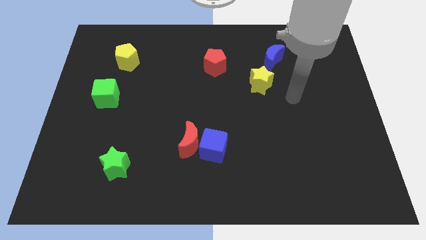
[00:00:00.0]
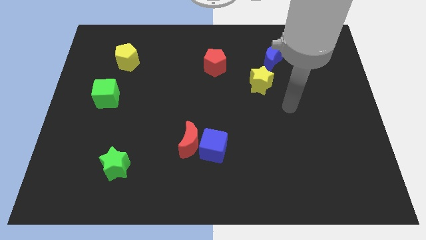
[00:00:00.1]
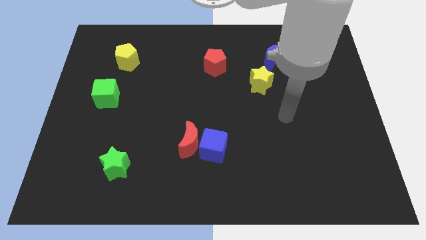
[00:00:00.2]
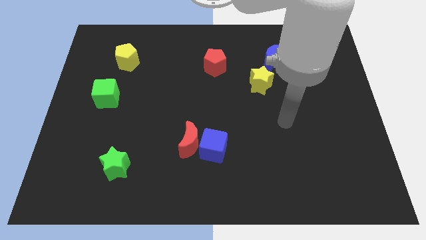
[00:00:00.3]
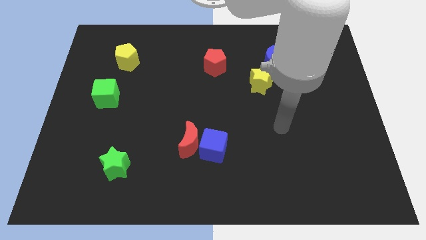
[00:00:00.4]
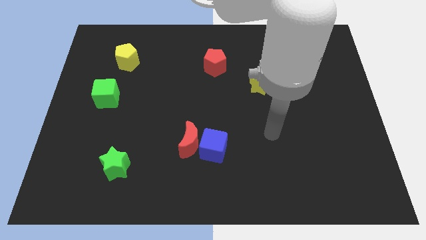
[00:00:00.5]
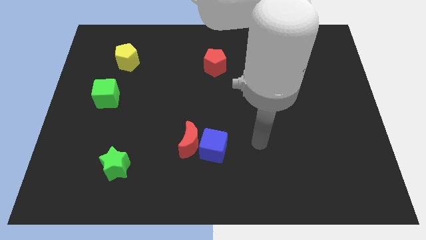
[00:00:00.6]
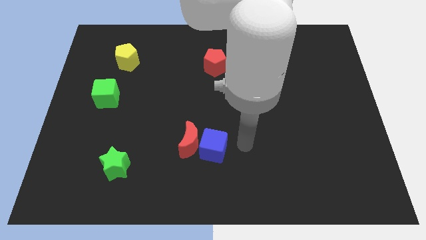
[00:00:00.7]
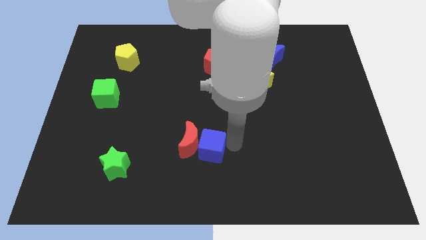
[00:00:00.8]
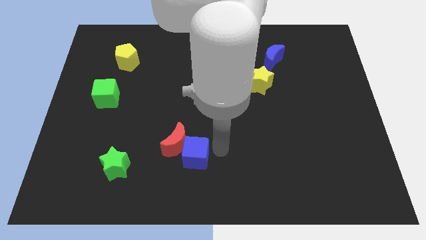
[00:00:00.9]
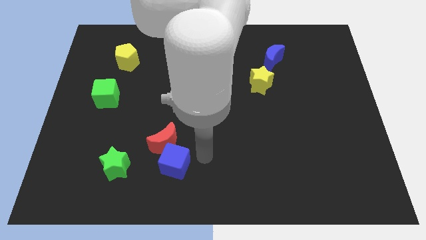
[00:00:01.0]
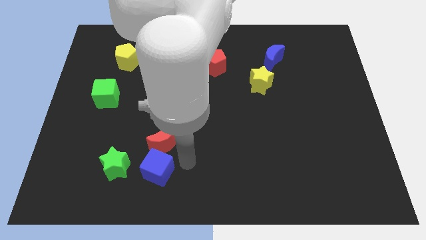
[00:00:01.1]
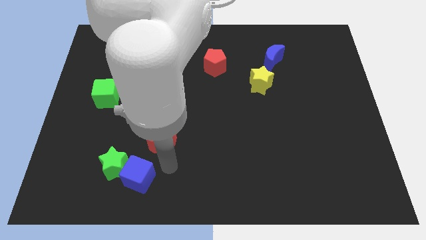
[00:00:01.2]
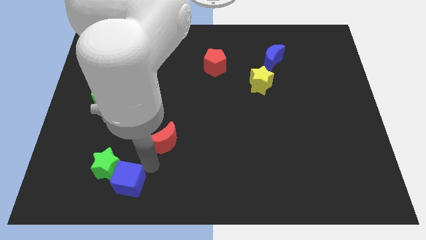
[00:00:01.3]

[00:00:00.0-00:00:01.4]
pull the red moon apart from the blue cube

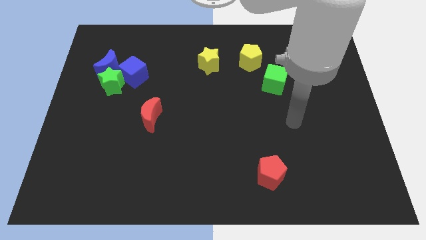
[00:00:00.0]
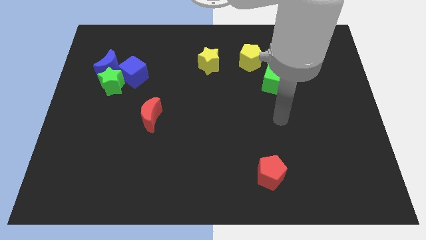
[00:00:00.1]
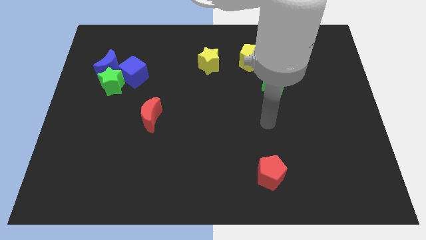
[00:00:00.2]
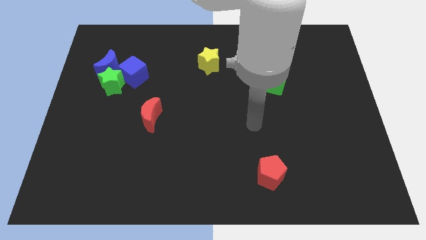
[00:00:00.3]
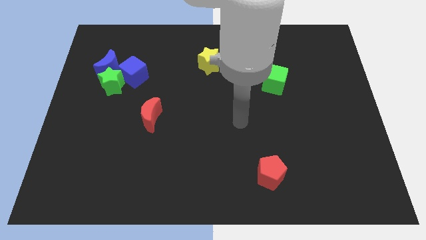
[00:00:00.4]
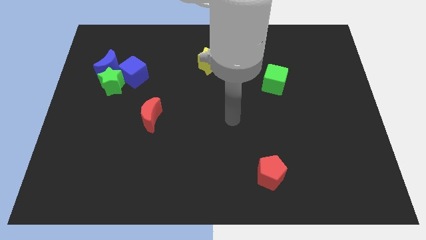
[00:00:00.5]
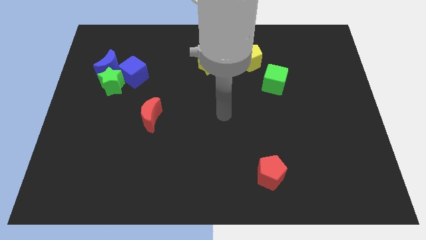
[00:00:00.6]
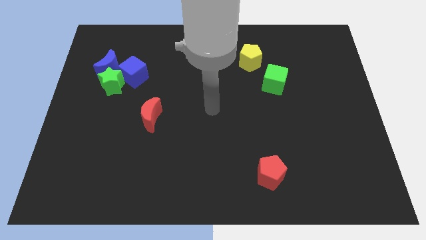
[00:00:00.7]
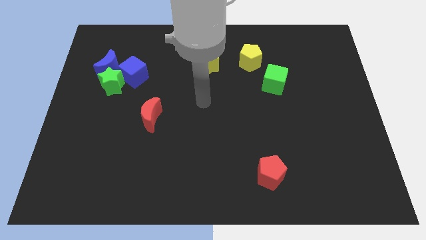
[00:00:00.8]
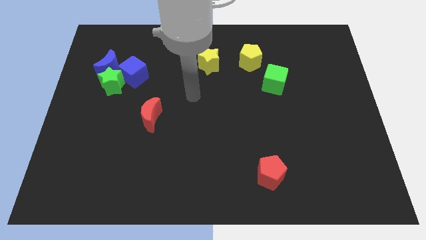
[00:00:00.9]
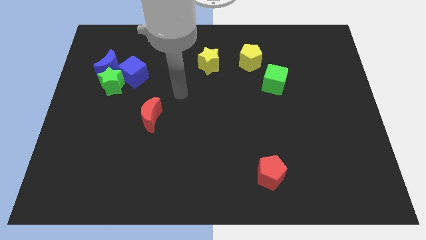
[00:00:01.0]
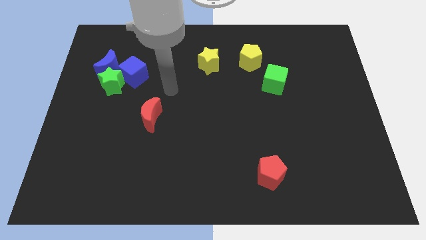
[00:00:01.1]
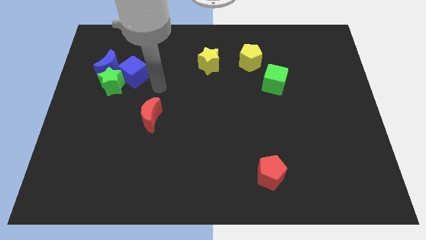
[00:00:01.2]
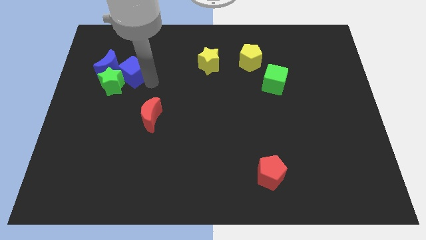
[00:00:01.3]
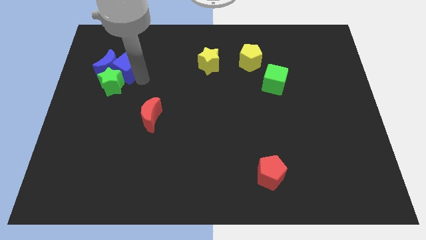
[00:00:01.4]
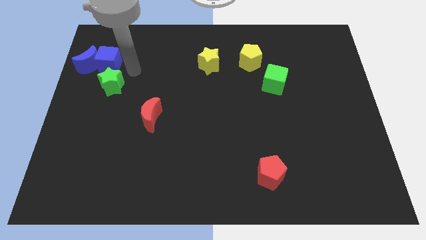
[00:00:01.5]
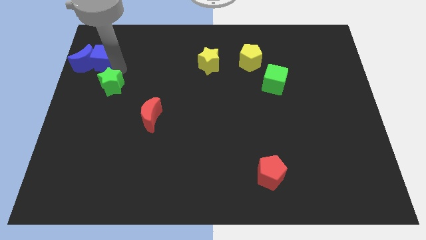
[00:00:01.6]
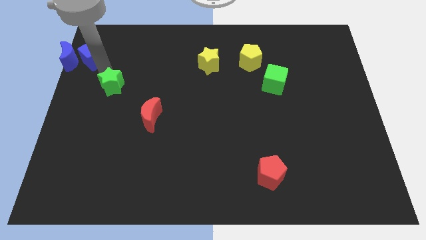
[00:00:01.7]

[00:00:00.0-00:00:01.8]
move the green star away from the blue moon and blue cube

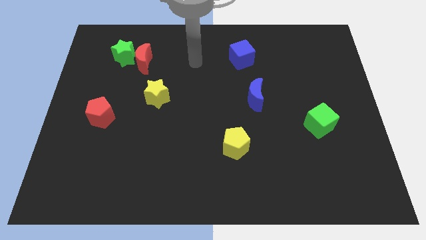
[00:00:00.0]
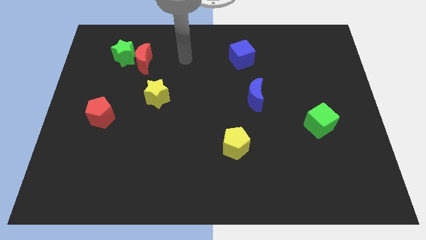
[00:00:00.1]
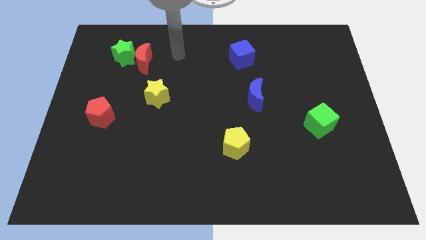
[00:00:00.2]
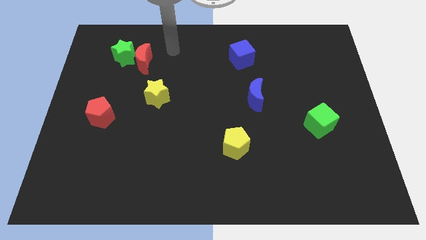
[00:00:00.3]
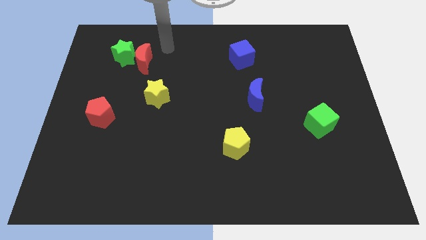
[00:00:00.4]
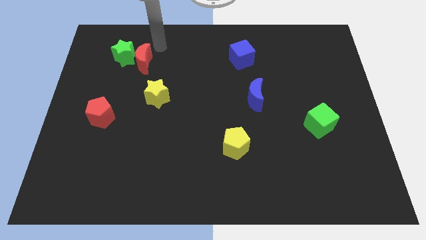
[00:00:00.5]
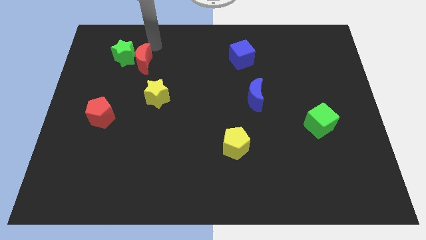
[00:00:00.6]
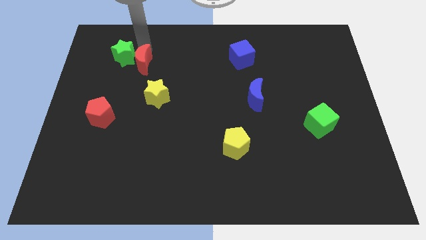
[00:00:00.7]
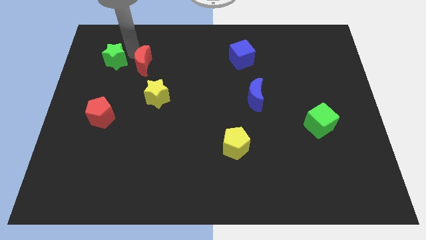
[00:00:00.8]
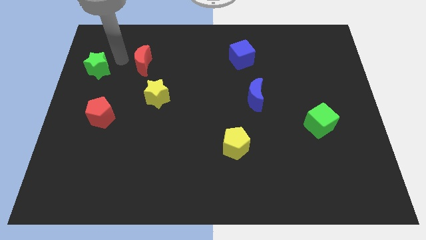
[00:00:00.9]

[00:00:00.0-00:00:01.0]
separate the red moon from the green star

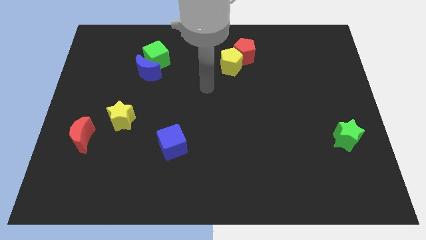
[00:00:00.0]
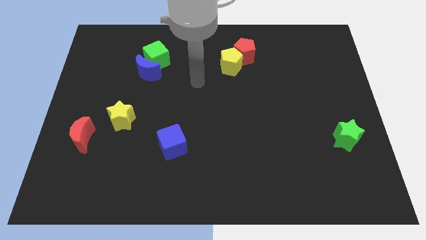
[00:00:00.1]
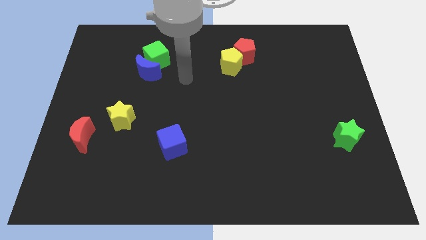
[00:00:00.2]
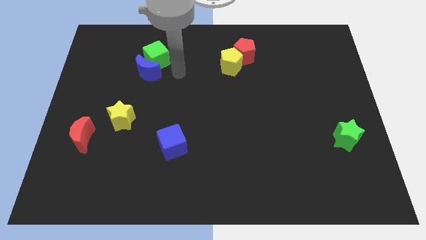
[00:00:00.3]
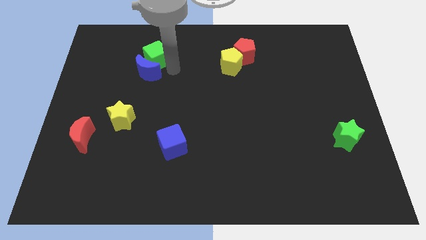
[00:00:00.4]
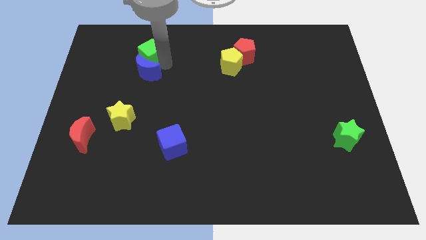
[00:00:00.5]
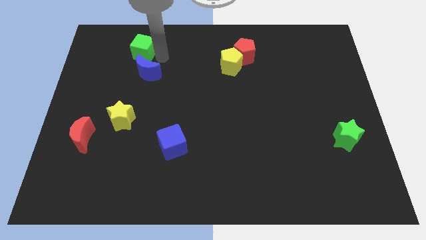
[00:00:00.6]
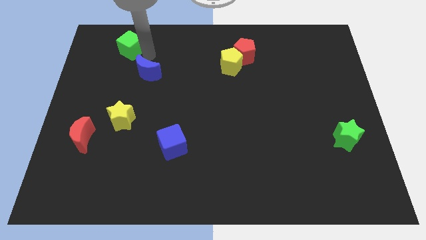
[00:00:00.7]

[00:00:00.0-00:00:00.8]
separate the blue moon from the green cube

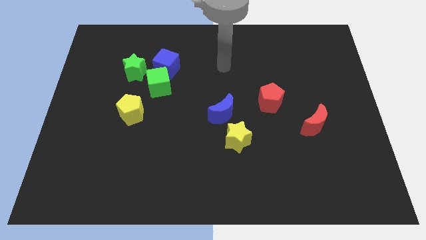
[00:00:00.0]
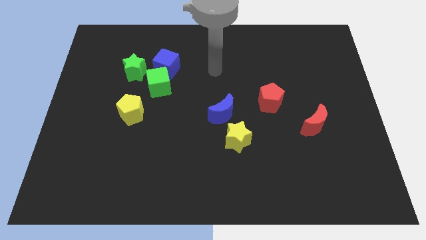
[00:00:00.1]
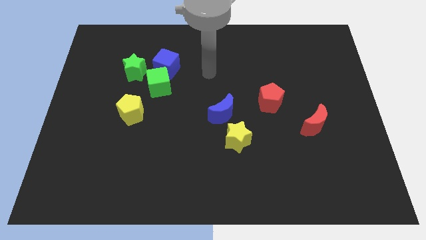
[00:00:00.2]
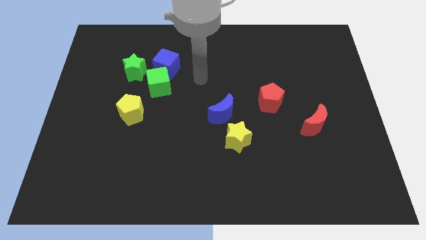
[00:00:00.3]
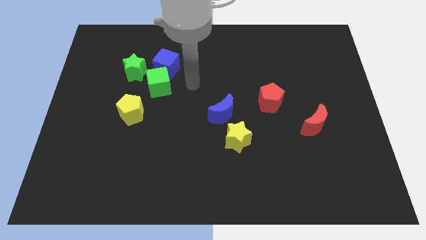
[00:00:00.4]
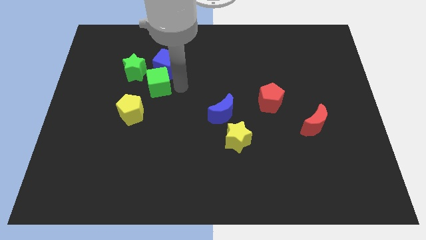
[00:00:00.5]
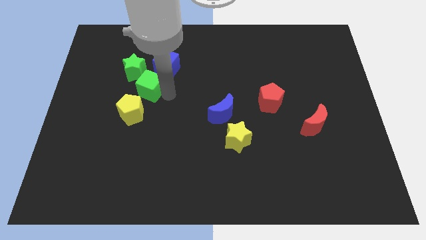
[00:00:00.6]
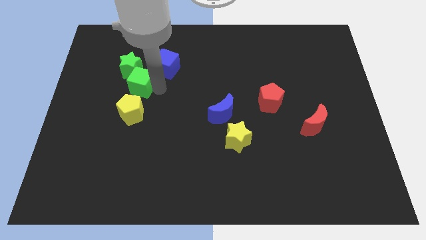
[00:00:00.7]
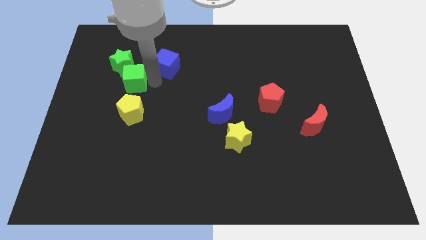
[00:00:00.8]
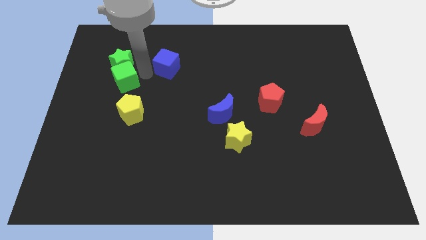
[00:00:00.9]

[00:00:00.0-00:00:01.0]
pull the blue cube apart from the green cube and green star

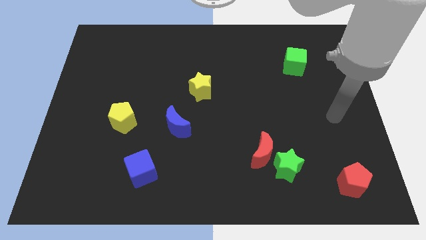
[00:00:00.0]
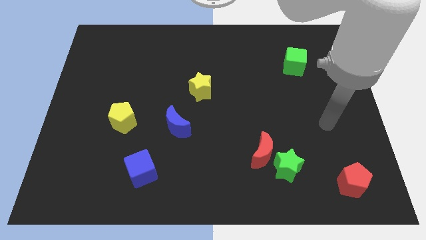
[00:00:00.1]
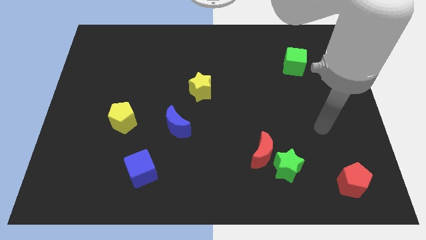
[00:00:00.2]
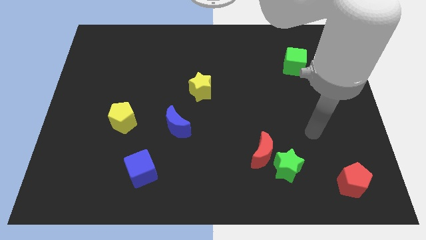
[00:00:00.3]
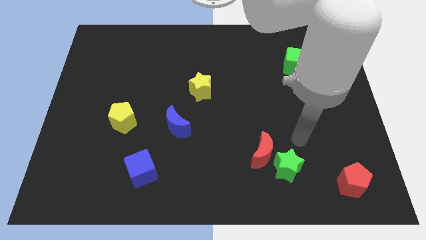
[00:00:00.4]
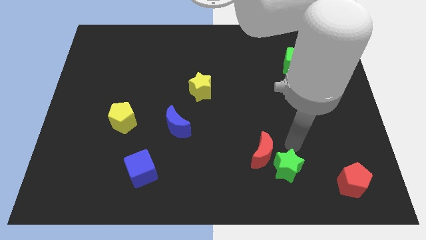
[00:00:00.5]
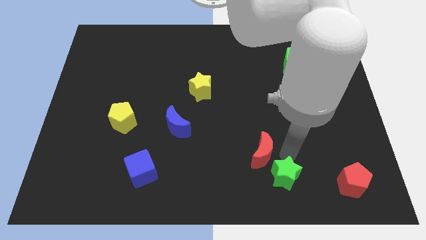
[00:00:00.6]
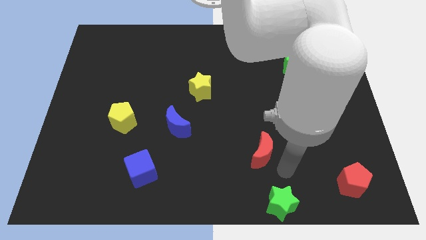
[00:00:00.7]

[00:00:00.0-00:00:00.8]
pull the red moon apart from the green star

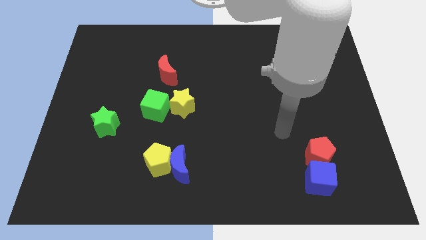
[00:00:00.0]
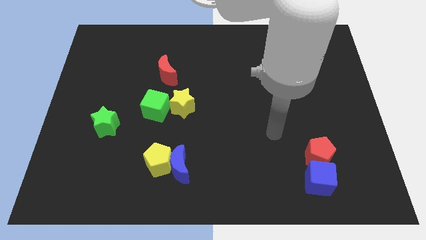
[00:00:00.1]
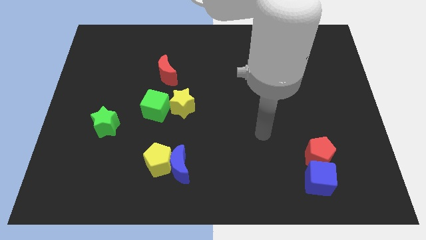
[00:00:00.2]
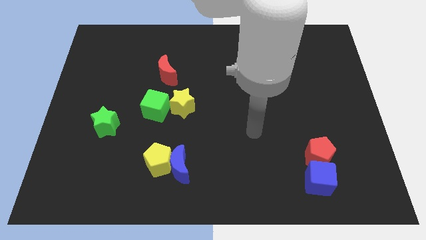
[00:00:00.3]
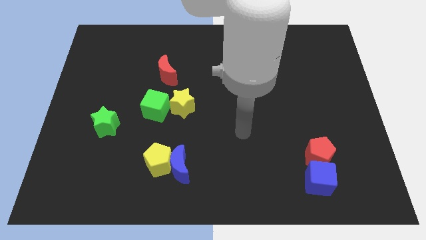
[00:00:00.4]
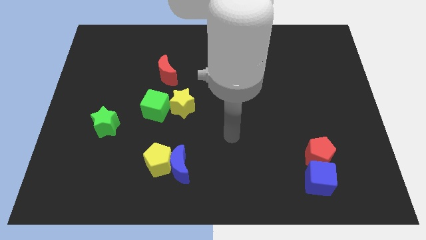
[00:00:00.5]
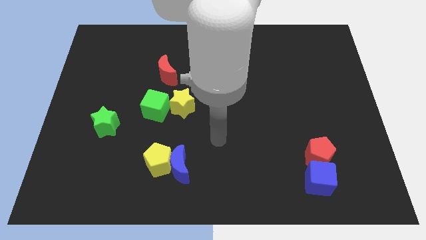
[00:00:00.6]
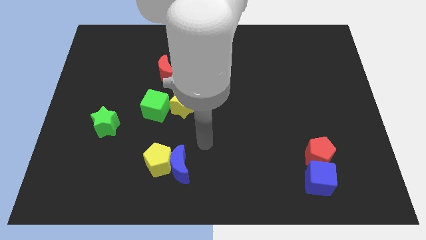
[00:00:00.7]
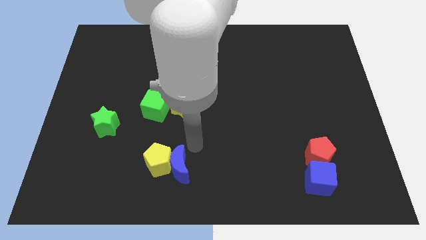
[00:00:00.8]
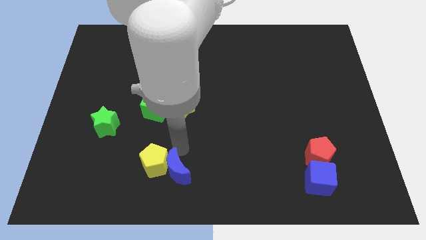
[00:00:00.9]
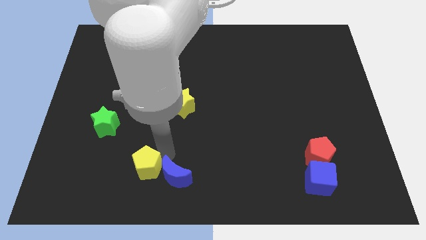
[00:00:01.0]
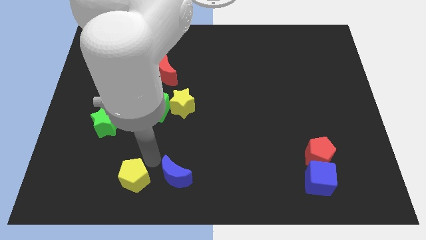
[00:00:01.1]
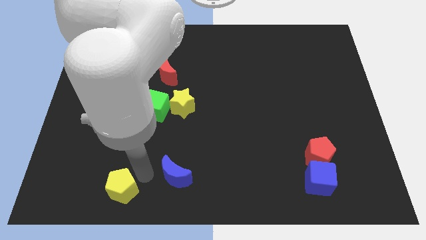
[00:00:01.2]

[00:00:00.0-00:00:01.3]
move the blue moon away from the yellow pentagon

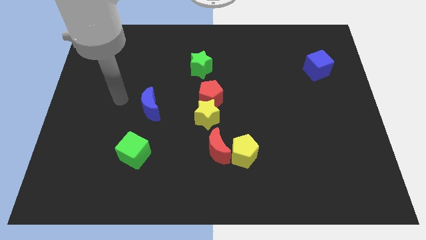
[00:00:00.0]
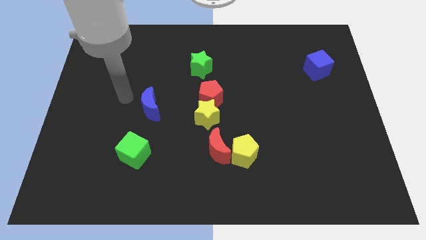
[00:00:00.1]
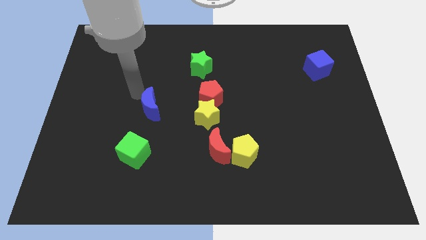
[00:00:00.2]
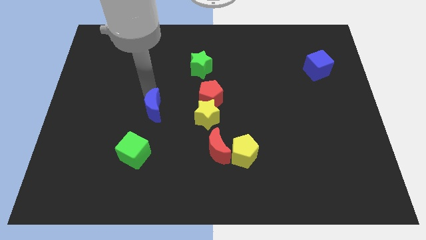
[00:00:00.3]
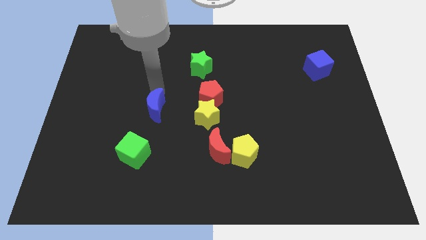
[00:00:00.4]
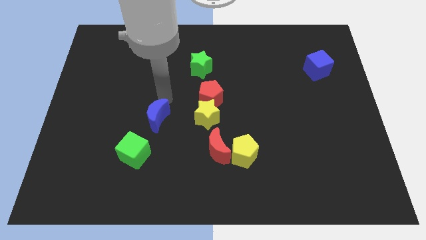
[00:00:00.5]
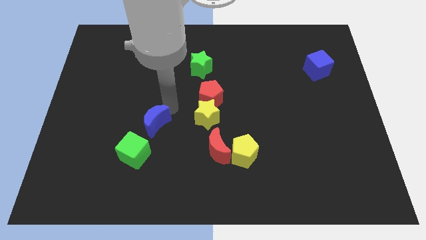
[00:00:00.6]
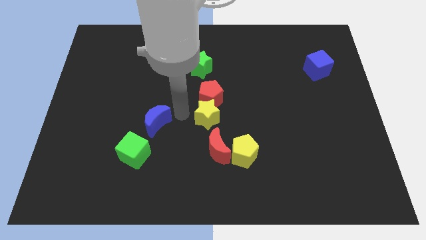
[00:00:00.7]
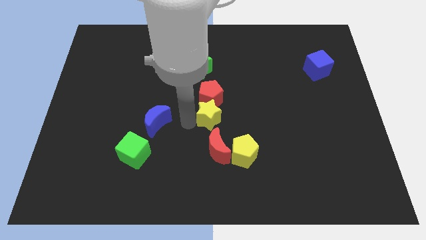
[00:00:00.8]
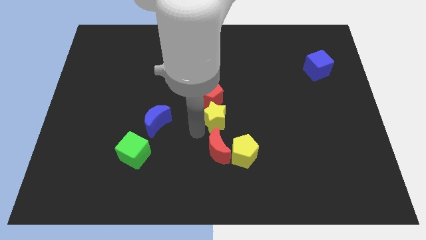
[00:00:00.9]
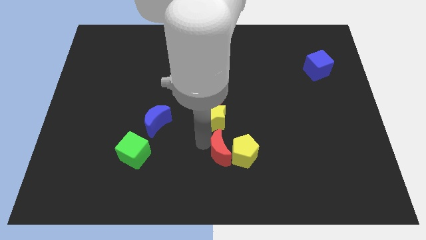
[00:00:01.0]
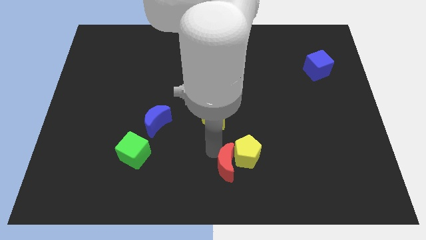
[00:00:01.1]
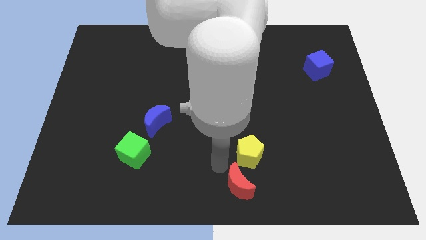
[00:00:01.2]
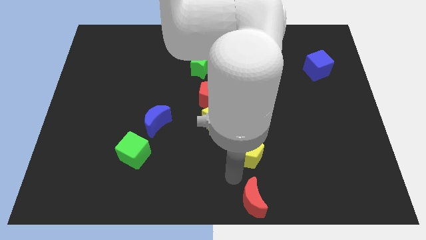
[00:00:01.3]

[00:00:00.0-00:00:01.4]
separate the yellow pentagon from the red moon
